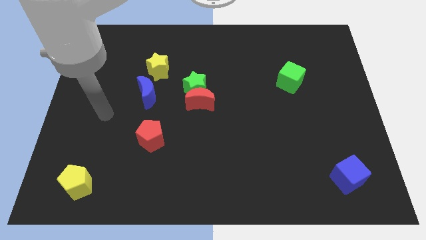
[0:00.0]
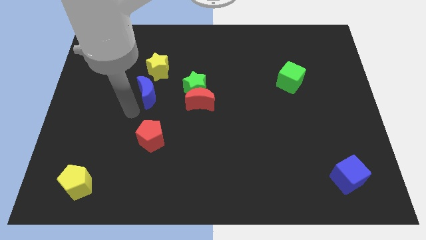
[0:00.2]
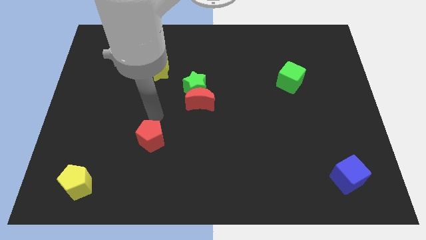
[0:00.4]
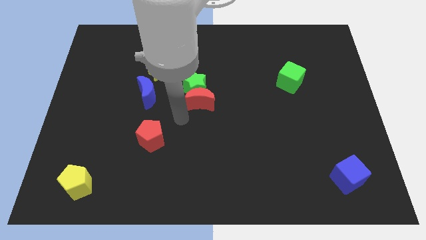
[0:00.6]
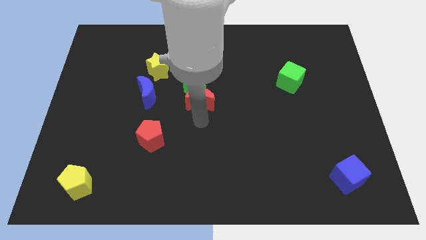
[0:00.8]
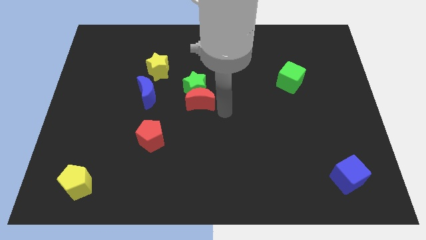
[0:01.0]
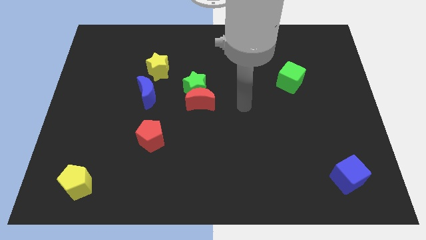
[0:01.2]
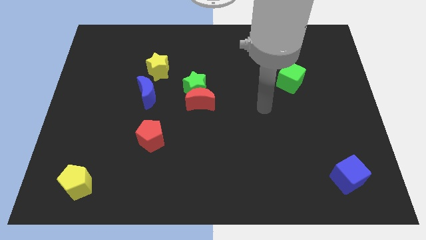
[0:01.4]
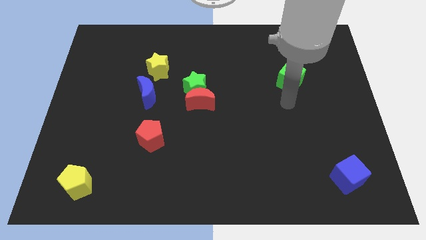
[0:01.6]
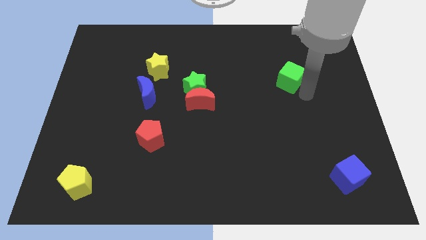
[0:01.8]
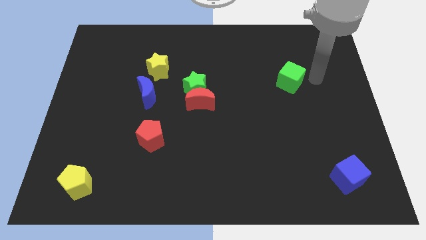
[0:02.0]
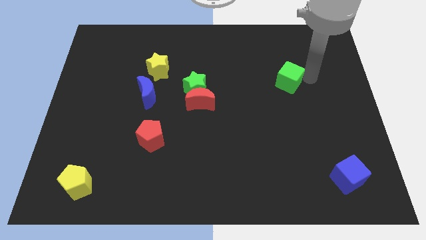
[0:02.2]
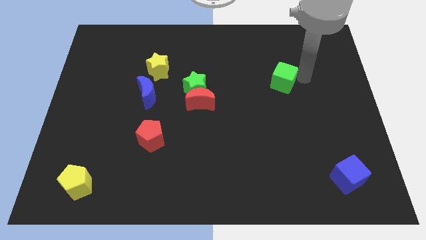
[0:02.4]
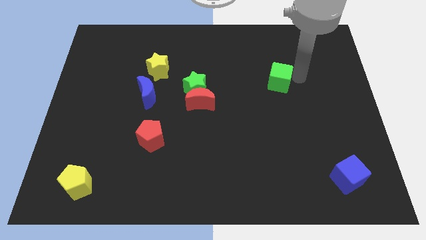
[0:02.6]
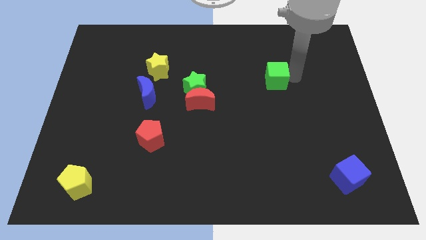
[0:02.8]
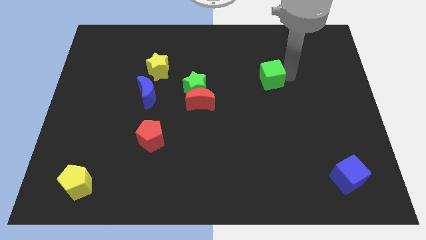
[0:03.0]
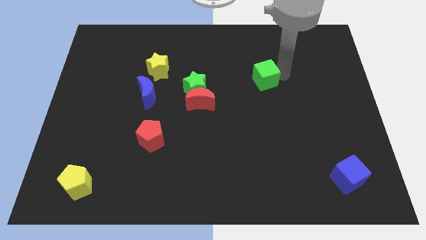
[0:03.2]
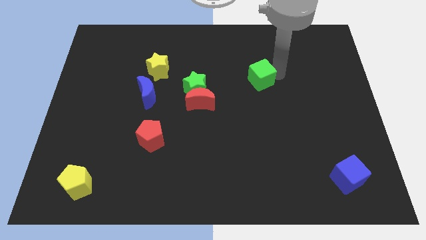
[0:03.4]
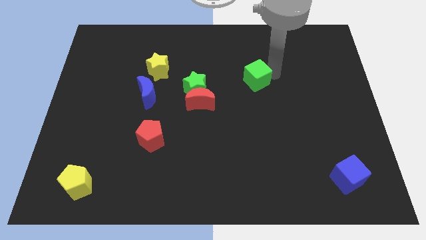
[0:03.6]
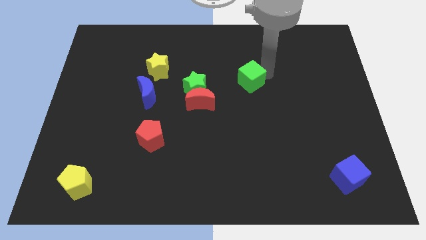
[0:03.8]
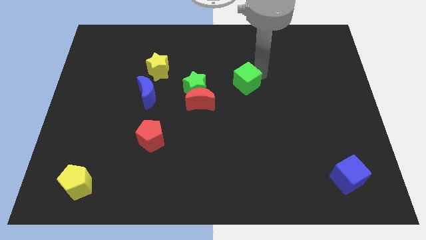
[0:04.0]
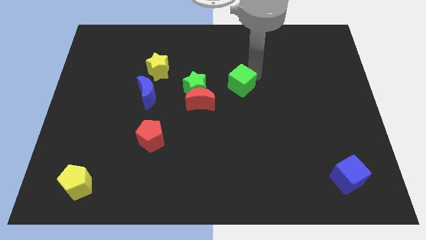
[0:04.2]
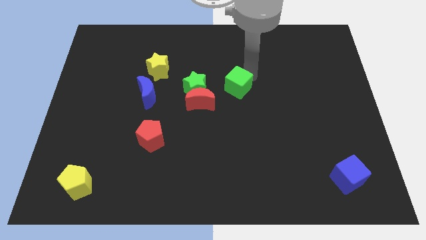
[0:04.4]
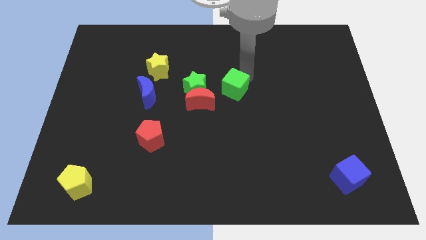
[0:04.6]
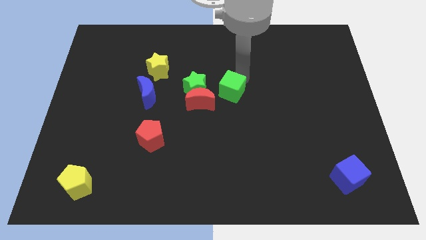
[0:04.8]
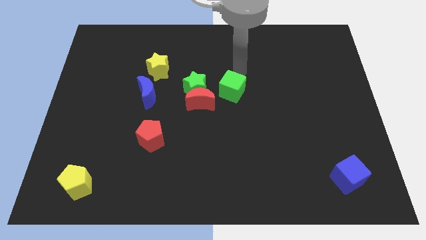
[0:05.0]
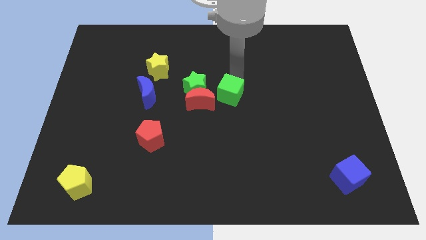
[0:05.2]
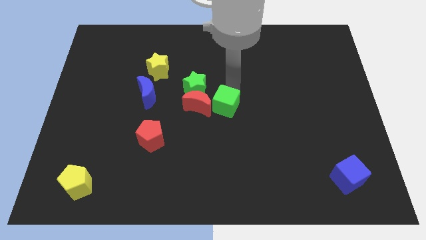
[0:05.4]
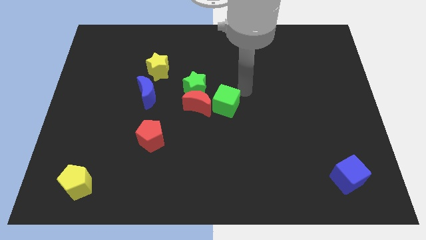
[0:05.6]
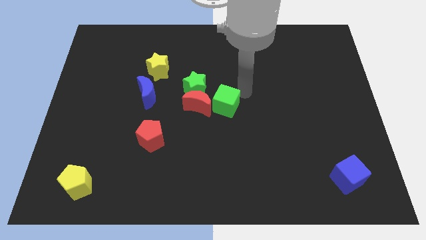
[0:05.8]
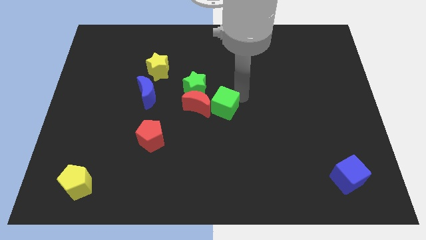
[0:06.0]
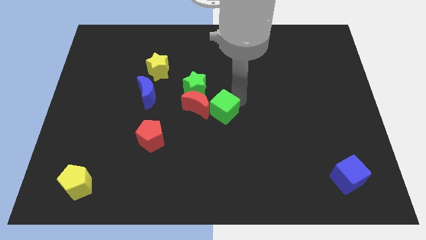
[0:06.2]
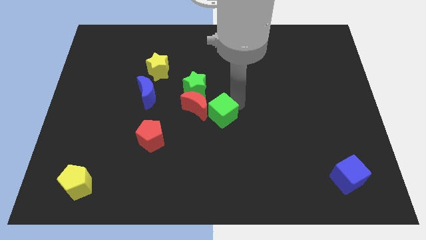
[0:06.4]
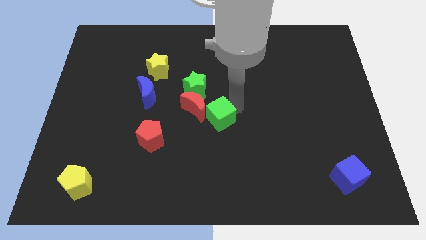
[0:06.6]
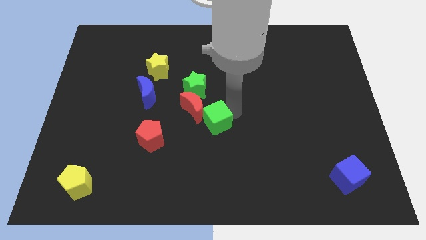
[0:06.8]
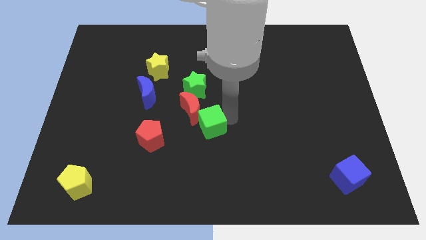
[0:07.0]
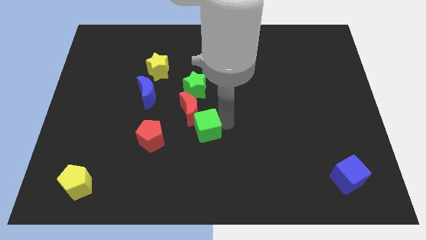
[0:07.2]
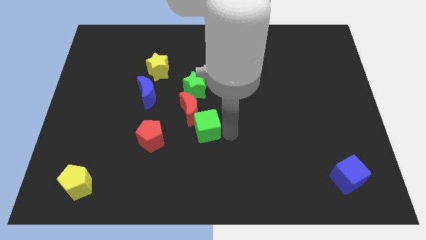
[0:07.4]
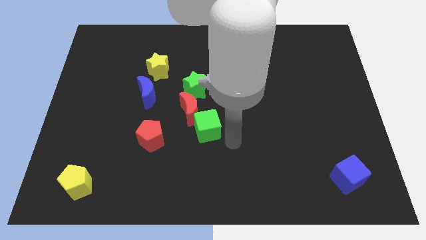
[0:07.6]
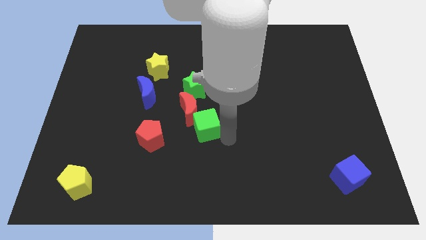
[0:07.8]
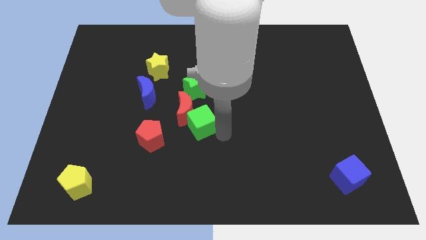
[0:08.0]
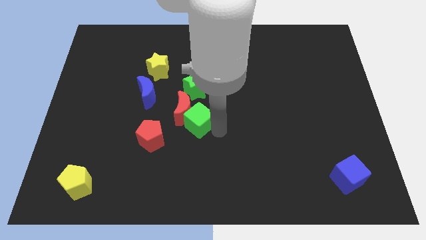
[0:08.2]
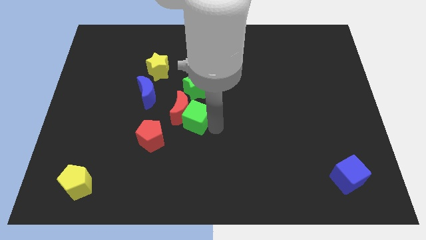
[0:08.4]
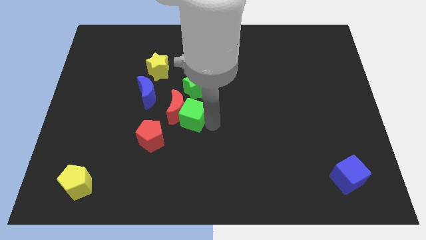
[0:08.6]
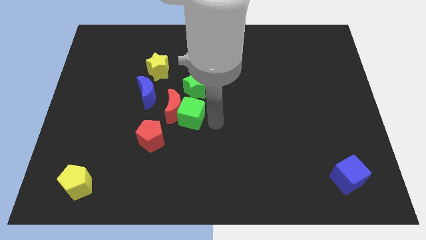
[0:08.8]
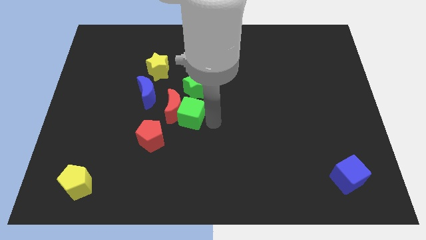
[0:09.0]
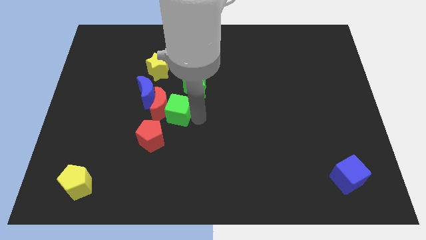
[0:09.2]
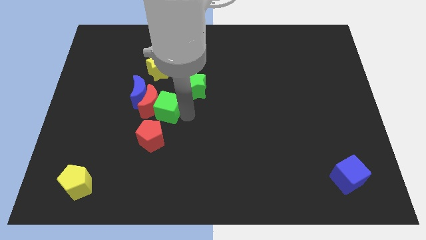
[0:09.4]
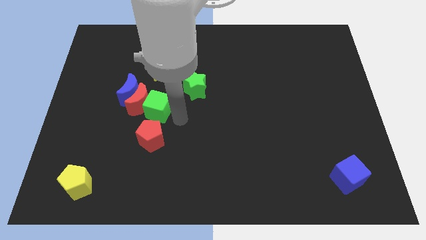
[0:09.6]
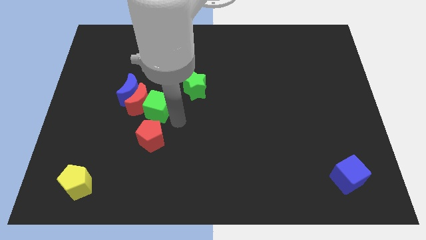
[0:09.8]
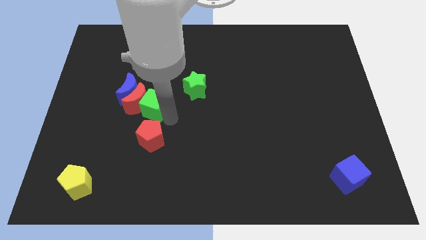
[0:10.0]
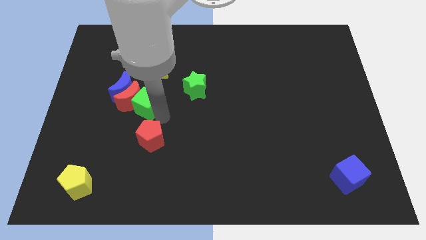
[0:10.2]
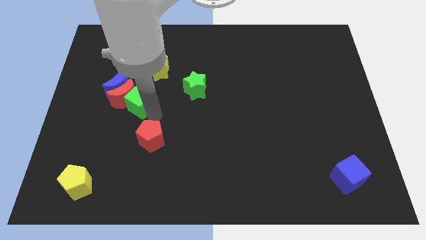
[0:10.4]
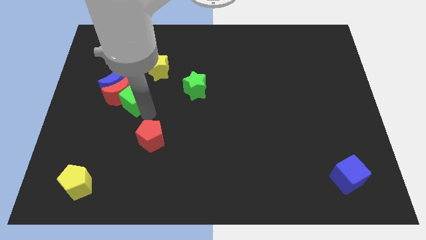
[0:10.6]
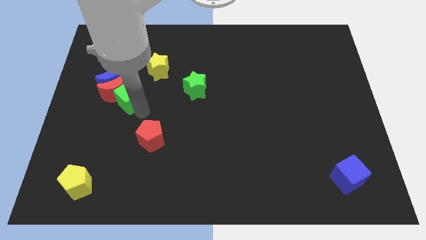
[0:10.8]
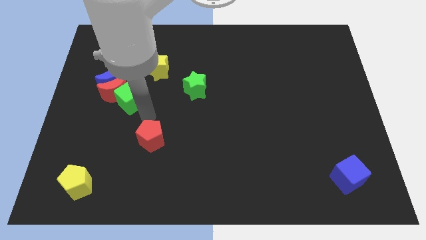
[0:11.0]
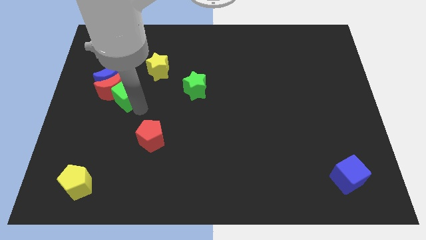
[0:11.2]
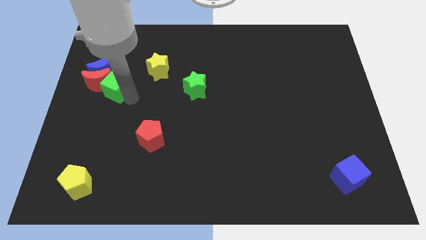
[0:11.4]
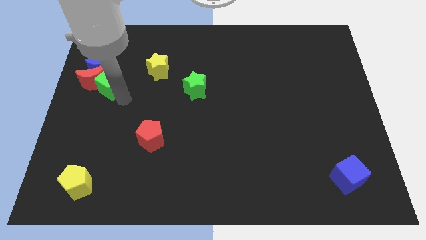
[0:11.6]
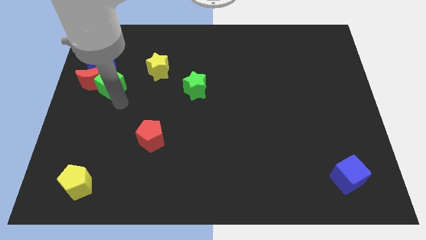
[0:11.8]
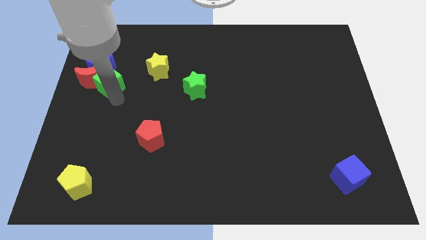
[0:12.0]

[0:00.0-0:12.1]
move the green cube close to the blue moon

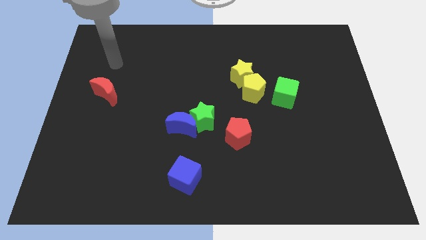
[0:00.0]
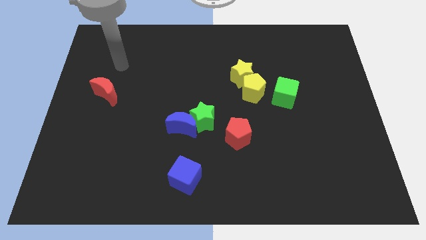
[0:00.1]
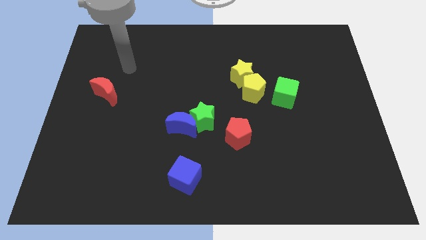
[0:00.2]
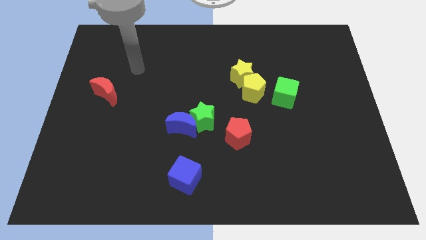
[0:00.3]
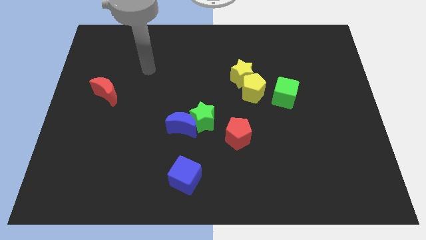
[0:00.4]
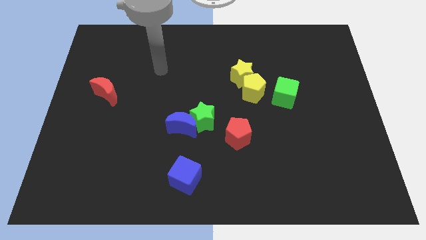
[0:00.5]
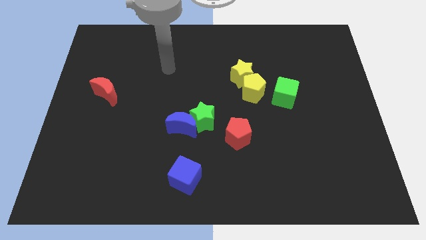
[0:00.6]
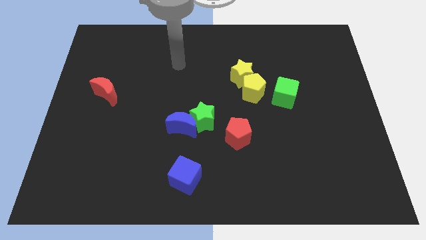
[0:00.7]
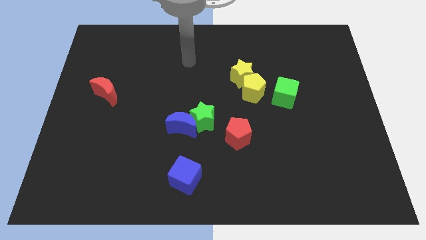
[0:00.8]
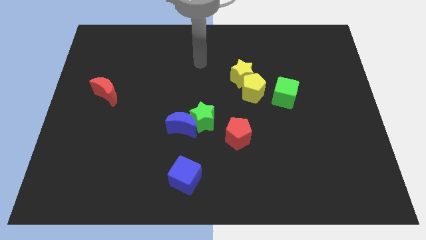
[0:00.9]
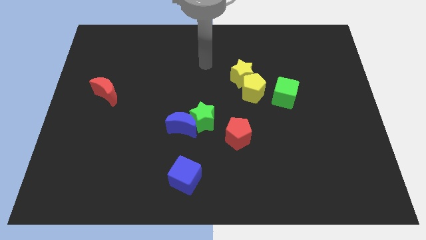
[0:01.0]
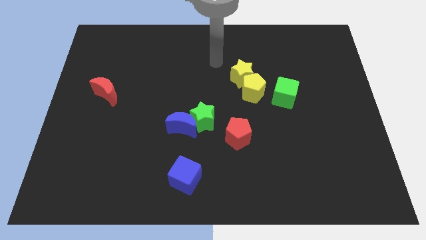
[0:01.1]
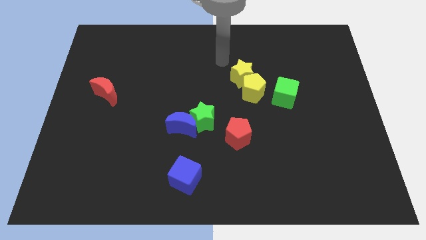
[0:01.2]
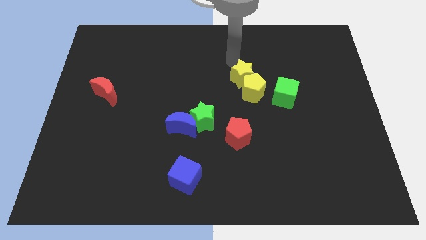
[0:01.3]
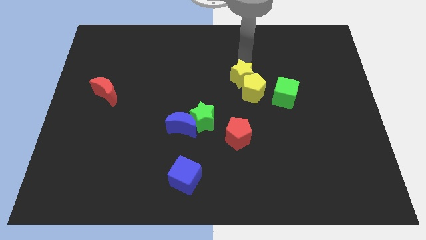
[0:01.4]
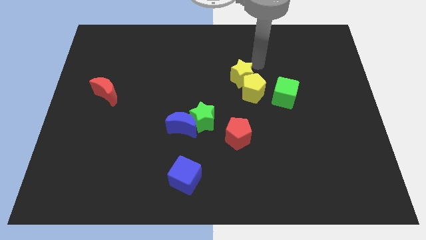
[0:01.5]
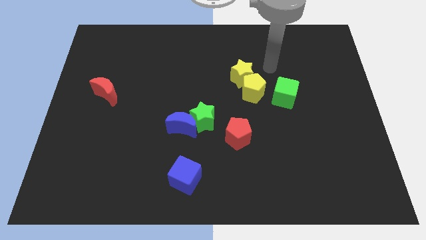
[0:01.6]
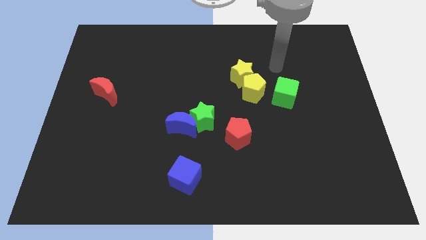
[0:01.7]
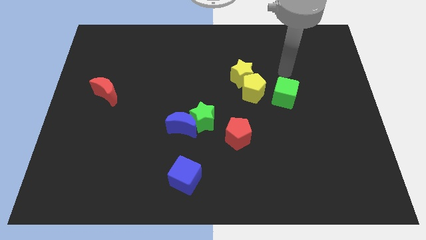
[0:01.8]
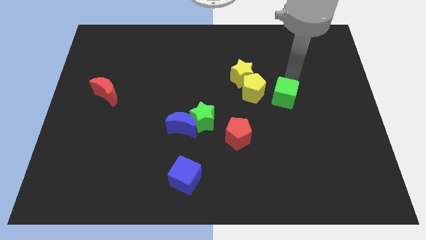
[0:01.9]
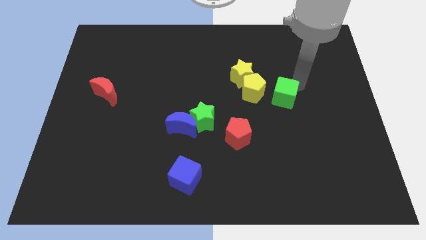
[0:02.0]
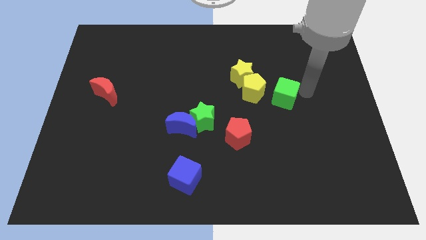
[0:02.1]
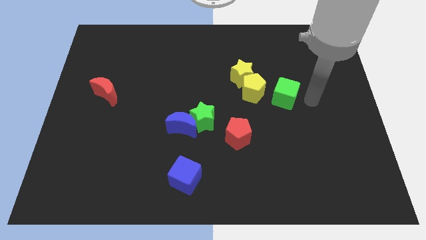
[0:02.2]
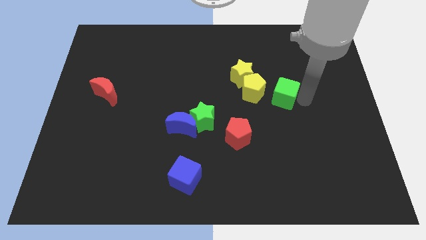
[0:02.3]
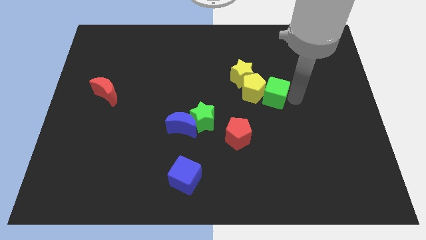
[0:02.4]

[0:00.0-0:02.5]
slide the green cube towards the yellow pentagon
